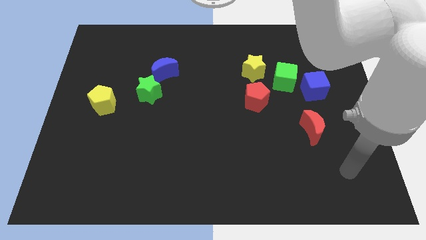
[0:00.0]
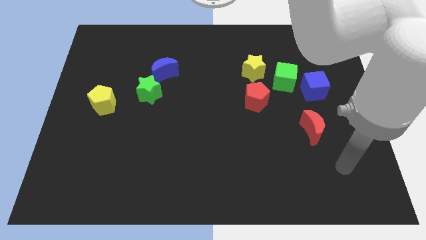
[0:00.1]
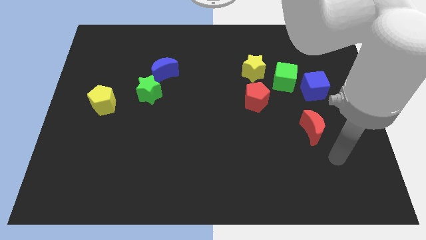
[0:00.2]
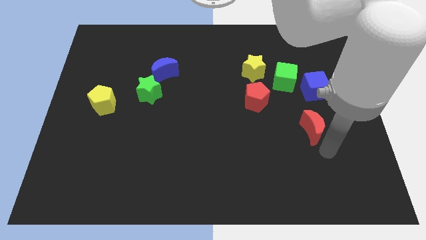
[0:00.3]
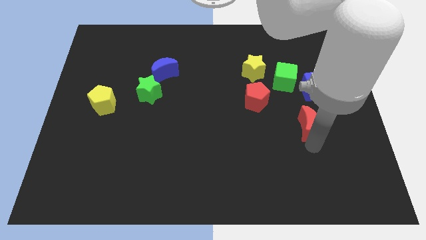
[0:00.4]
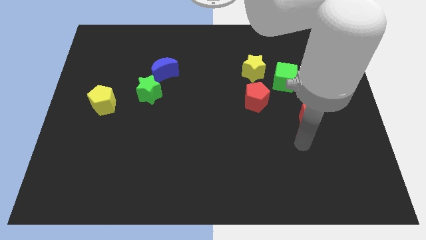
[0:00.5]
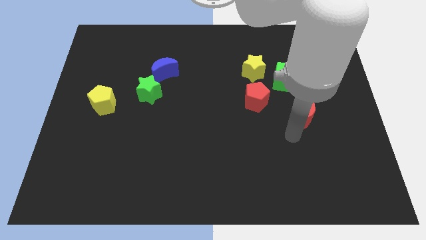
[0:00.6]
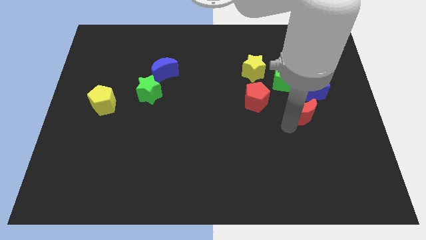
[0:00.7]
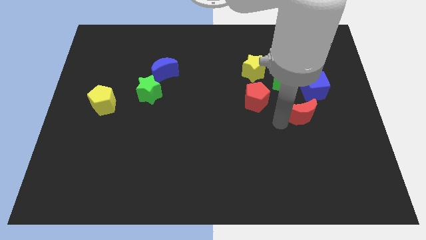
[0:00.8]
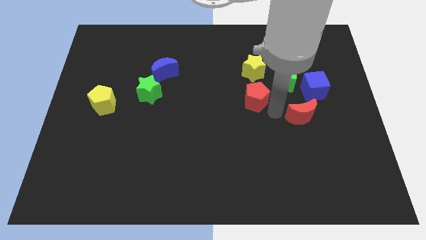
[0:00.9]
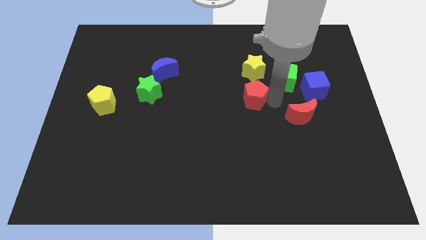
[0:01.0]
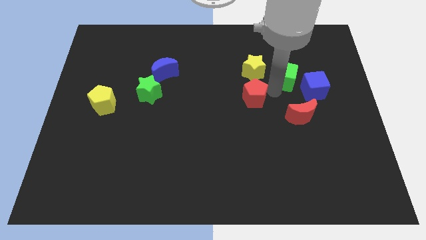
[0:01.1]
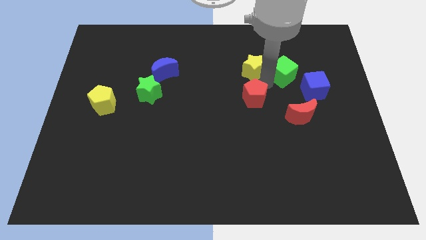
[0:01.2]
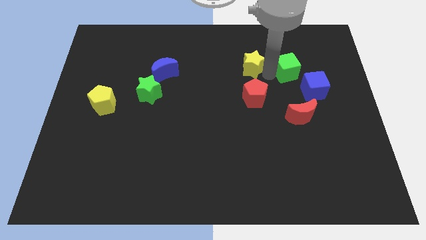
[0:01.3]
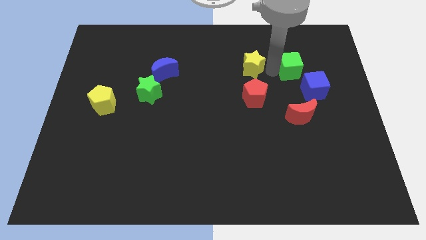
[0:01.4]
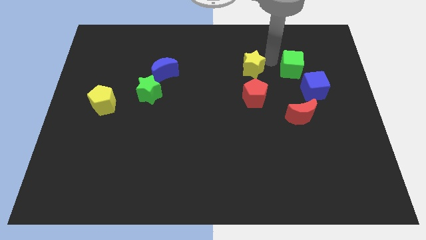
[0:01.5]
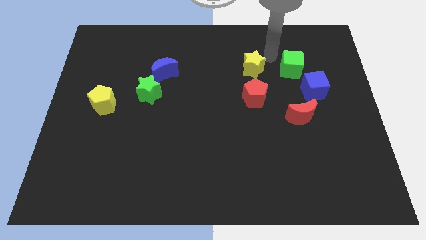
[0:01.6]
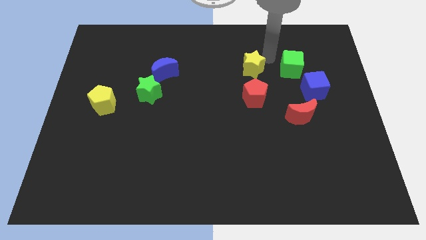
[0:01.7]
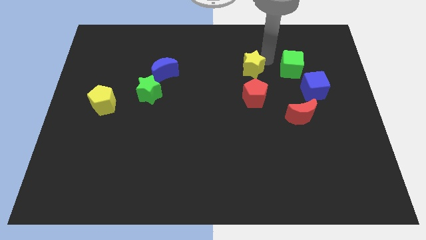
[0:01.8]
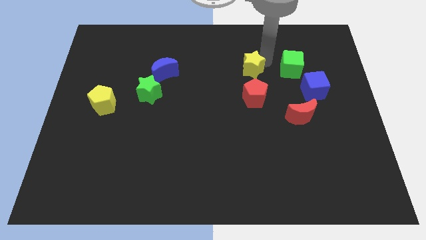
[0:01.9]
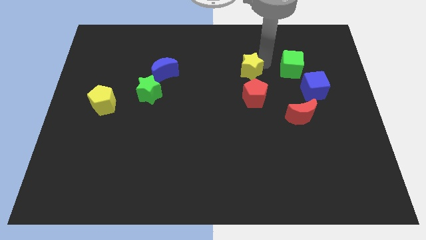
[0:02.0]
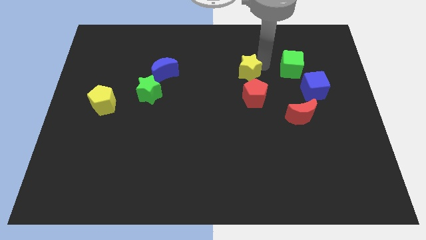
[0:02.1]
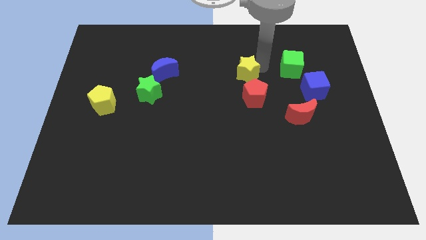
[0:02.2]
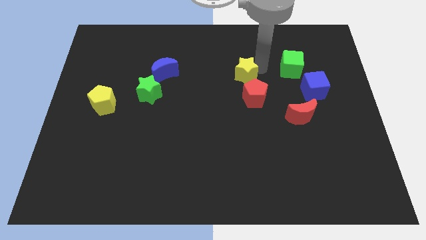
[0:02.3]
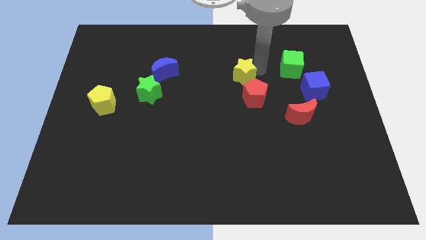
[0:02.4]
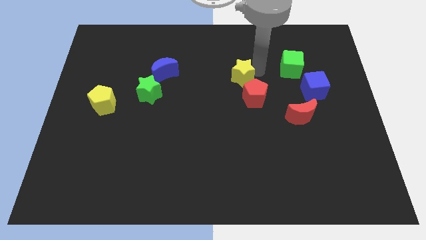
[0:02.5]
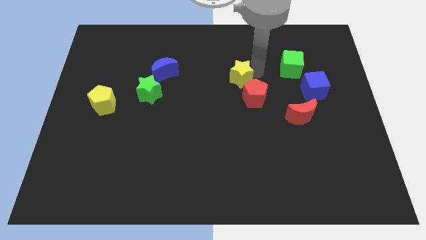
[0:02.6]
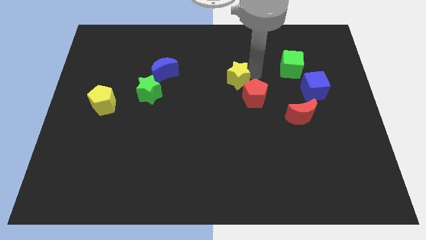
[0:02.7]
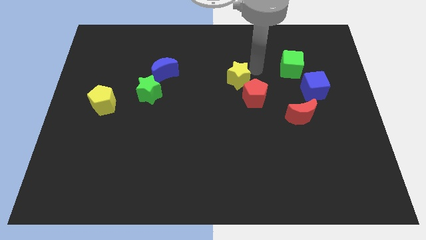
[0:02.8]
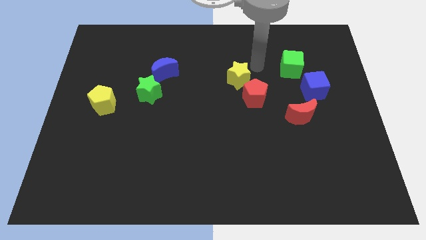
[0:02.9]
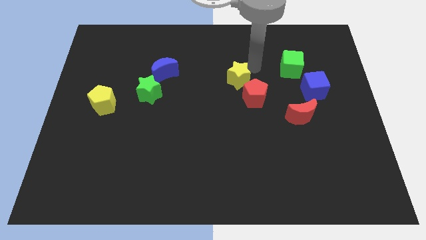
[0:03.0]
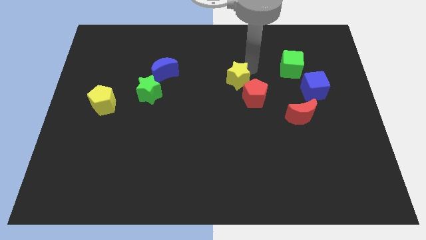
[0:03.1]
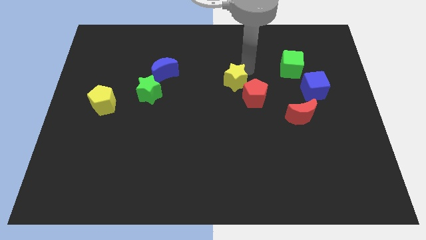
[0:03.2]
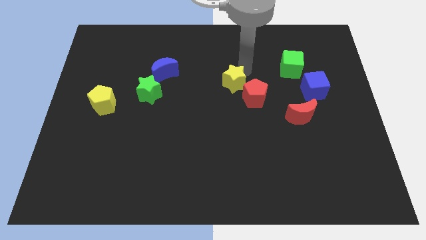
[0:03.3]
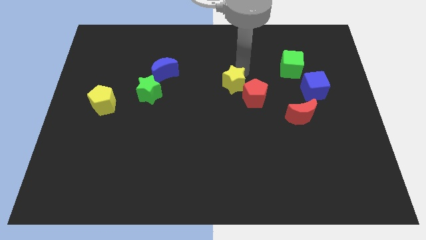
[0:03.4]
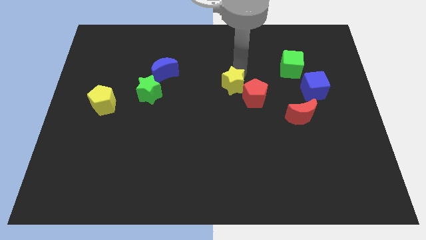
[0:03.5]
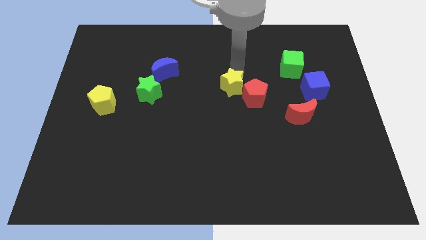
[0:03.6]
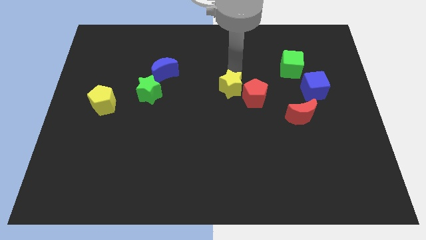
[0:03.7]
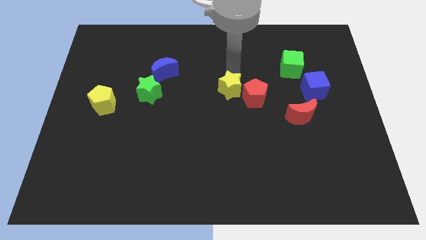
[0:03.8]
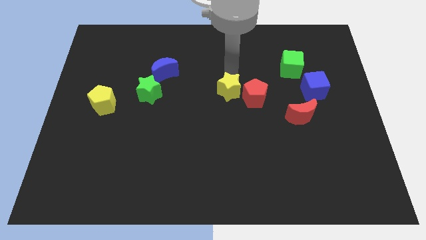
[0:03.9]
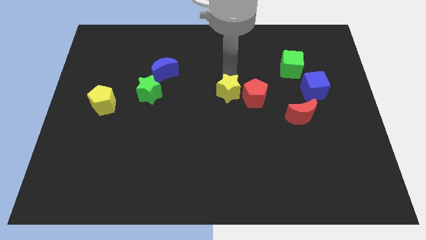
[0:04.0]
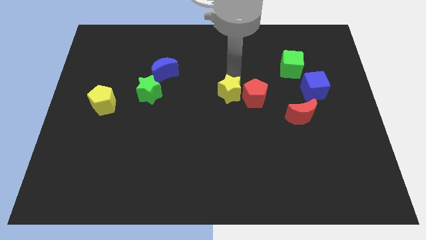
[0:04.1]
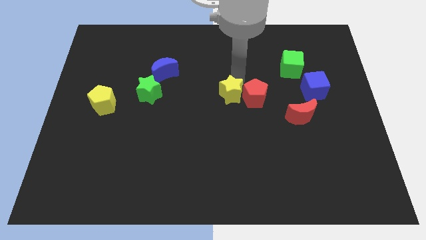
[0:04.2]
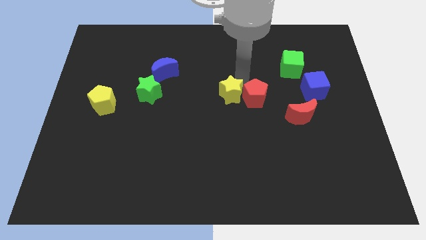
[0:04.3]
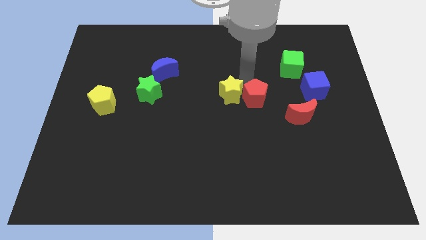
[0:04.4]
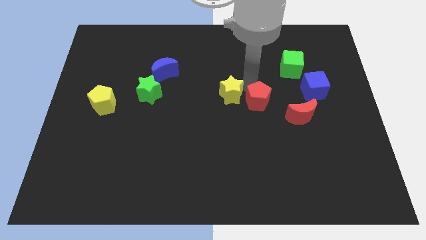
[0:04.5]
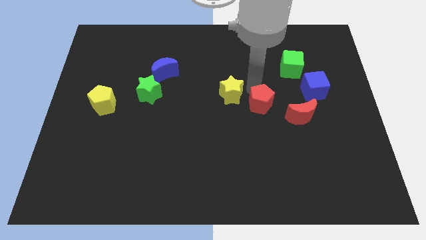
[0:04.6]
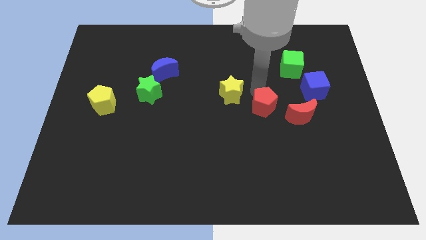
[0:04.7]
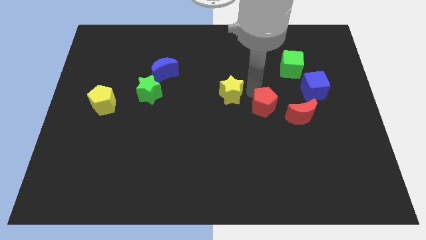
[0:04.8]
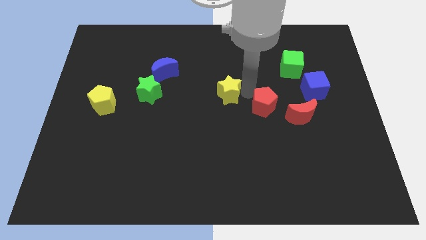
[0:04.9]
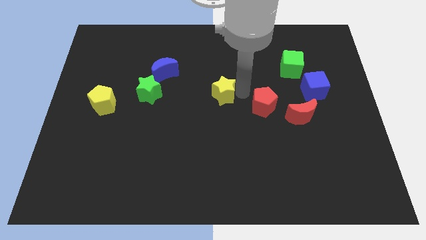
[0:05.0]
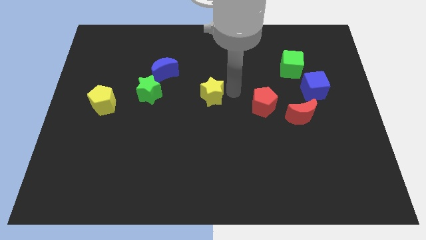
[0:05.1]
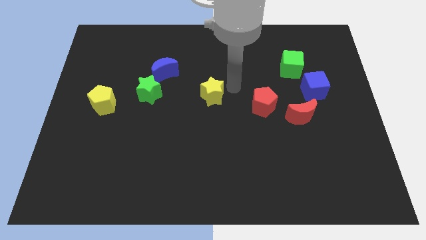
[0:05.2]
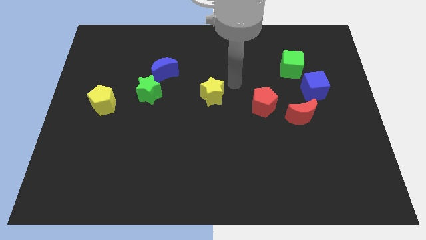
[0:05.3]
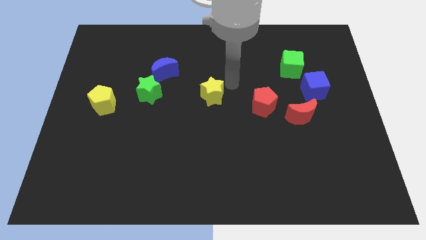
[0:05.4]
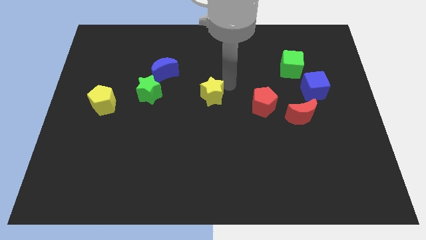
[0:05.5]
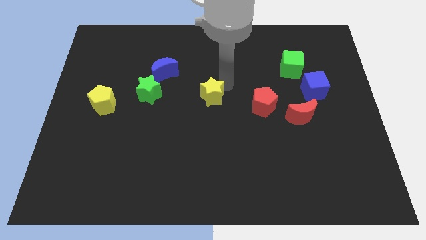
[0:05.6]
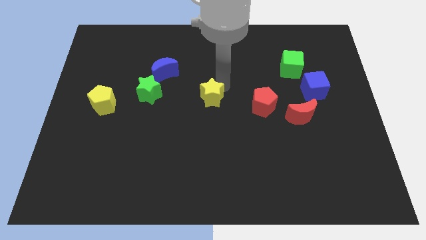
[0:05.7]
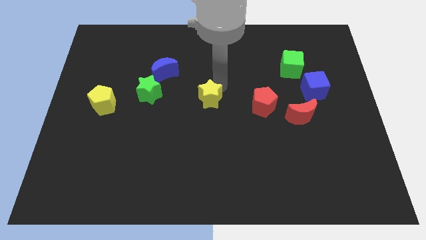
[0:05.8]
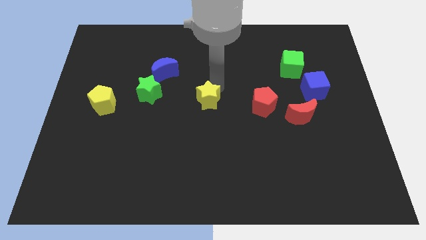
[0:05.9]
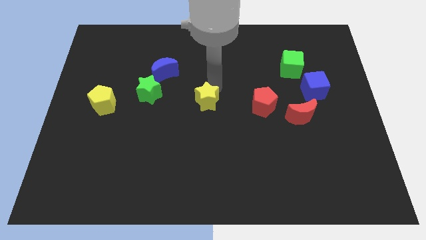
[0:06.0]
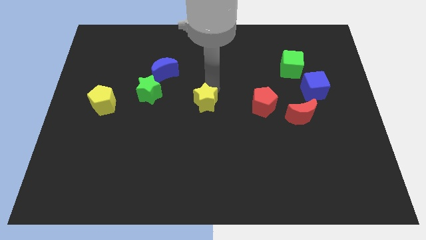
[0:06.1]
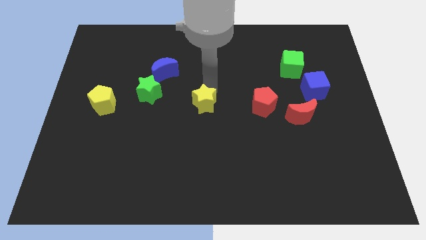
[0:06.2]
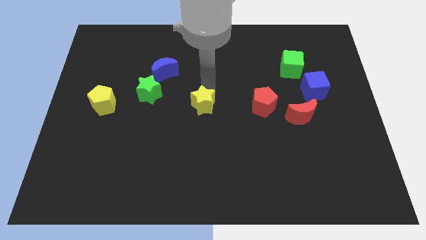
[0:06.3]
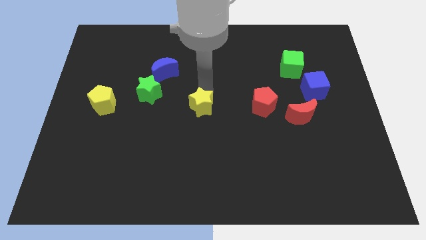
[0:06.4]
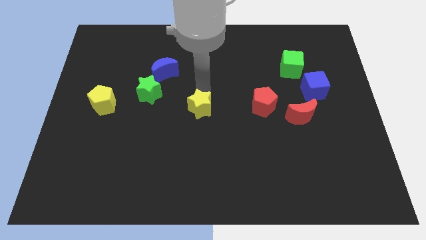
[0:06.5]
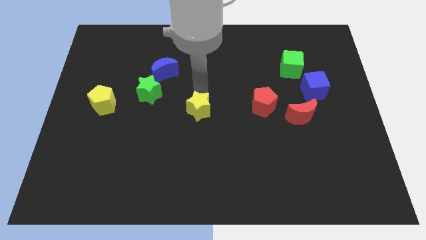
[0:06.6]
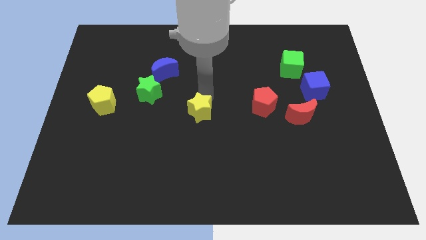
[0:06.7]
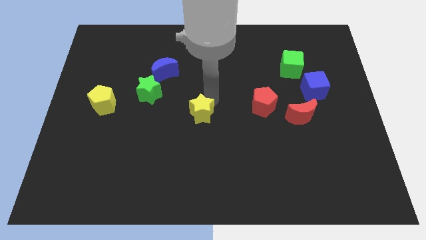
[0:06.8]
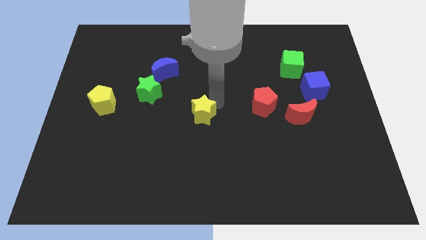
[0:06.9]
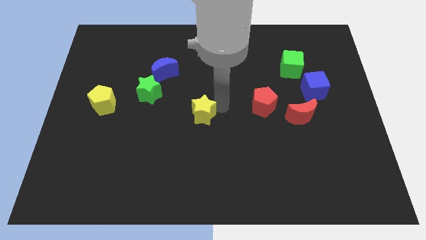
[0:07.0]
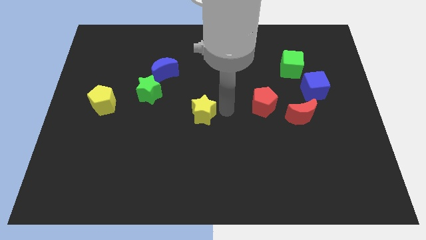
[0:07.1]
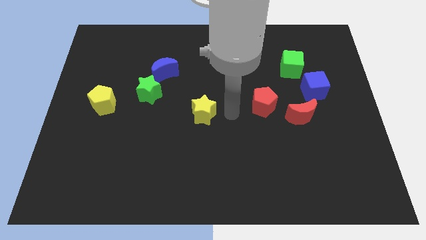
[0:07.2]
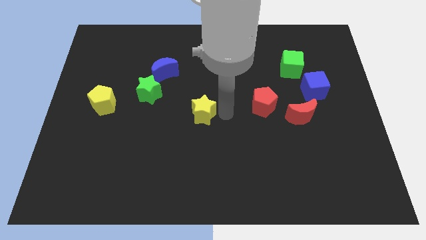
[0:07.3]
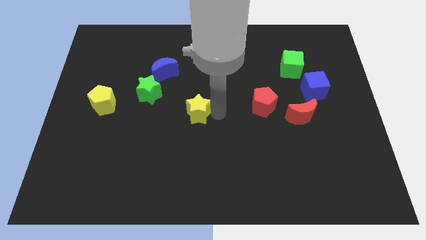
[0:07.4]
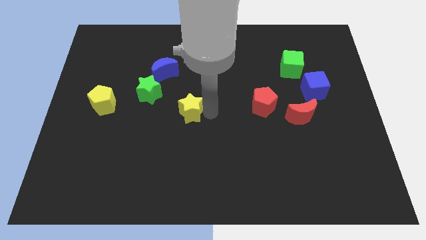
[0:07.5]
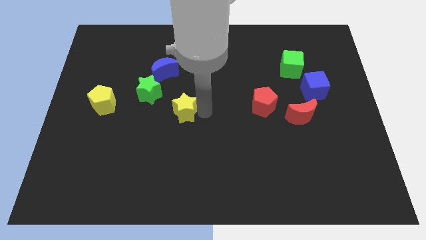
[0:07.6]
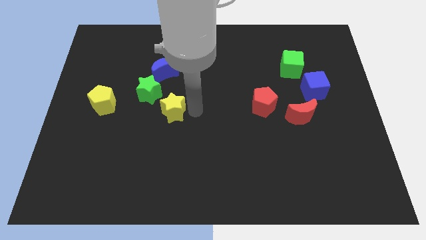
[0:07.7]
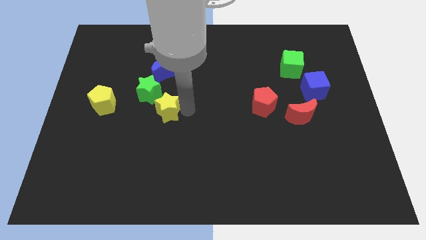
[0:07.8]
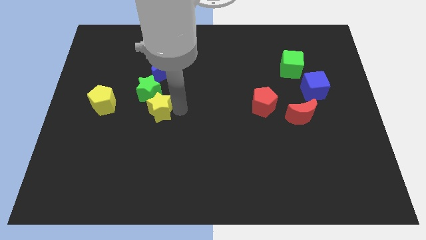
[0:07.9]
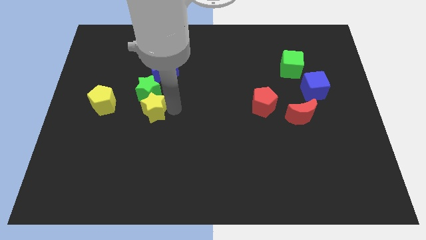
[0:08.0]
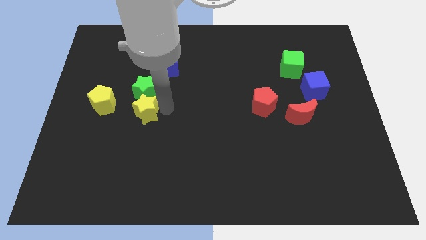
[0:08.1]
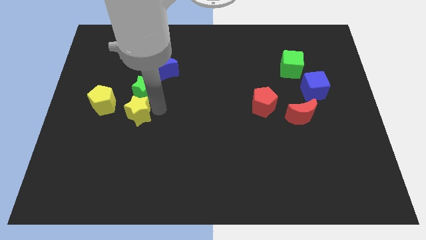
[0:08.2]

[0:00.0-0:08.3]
move the yellow star to the bottom right side of the yellow pentagon
